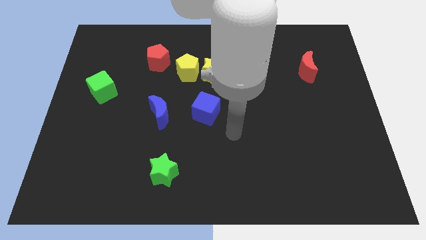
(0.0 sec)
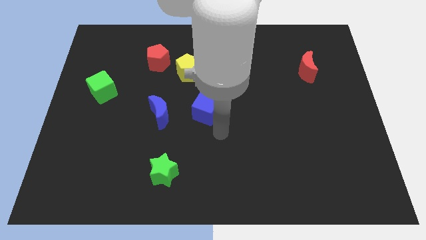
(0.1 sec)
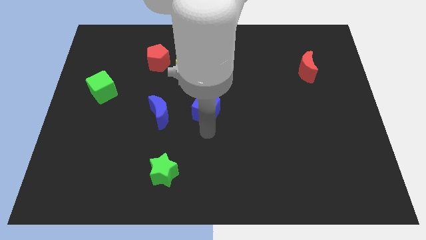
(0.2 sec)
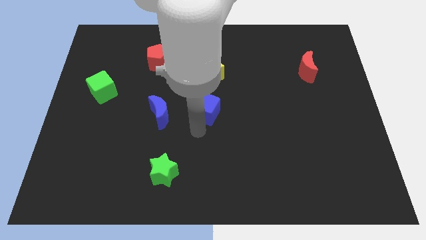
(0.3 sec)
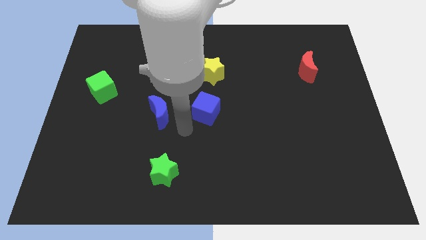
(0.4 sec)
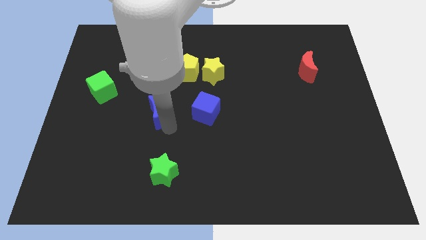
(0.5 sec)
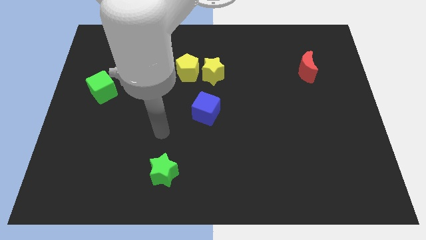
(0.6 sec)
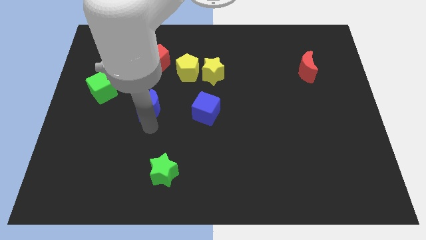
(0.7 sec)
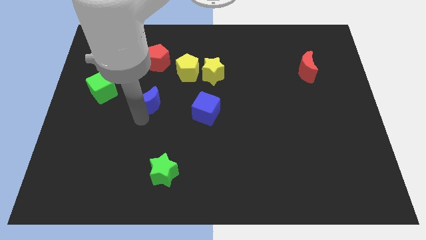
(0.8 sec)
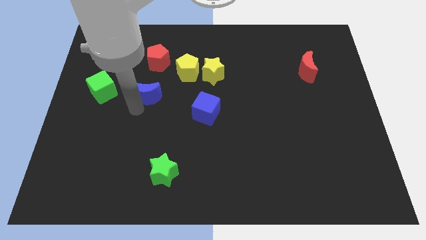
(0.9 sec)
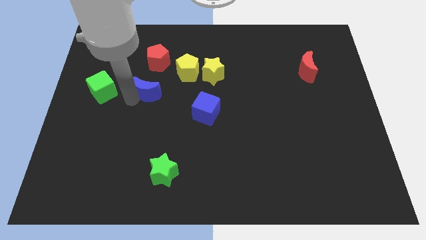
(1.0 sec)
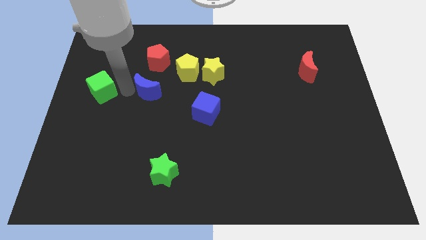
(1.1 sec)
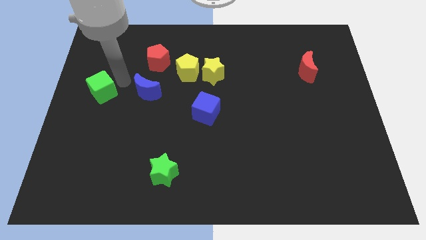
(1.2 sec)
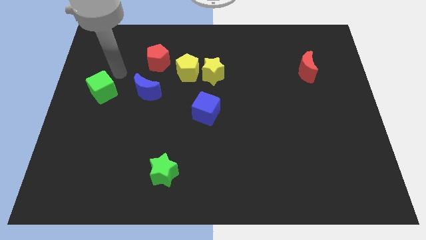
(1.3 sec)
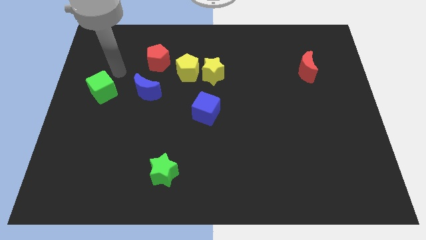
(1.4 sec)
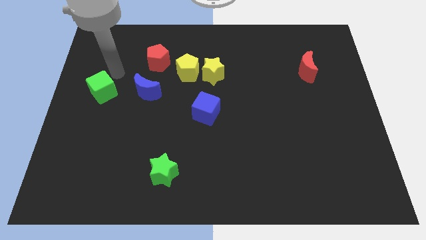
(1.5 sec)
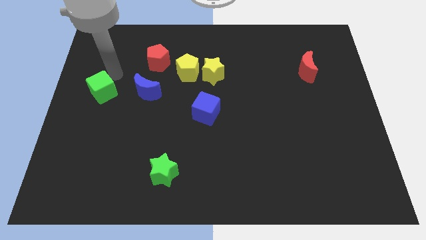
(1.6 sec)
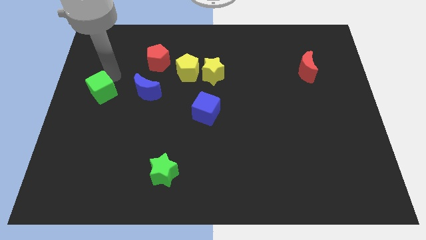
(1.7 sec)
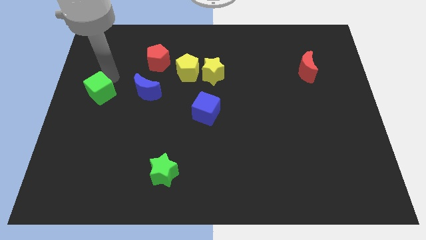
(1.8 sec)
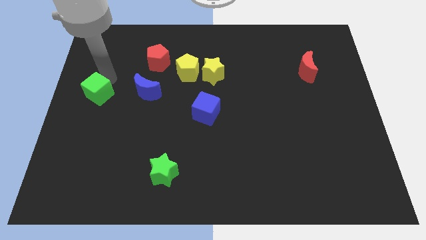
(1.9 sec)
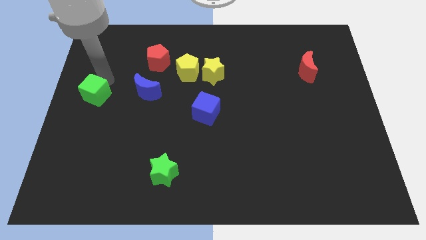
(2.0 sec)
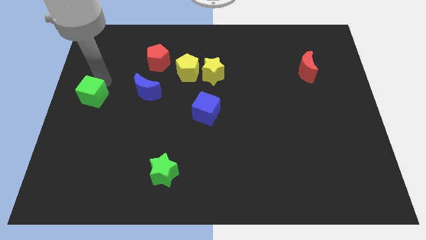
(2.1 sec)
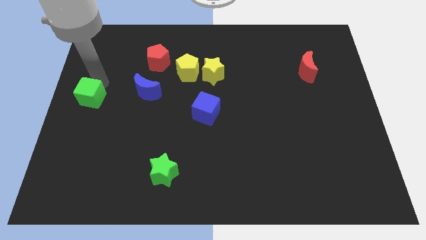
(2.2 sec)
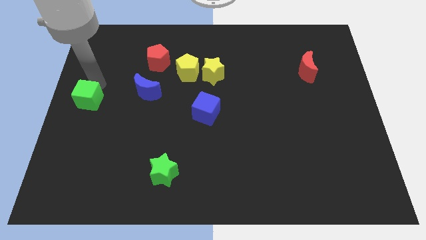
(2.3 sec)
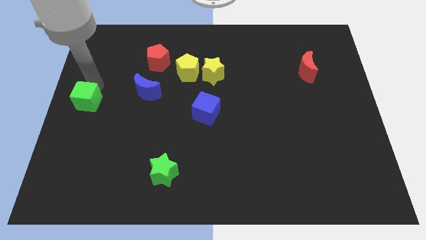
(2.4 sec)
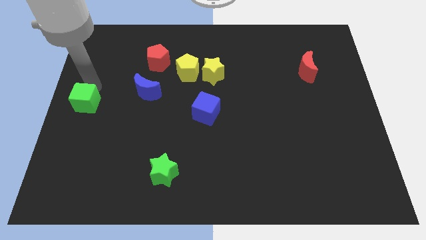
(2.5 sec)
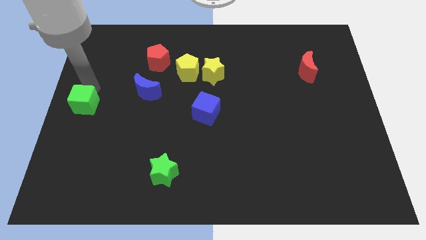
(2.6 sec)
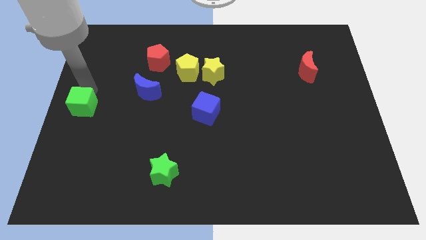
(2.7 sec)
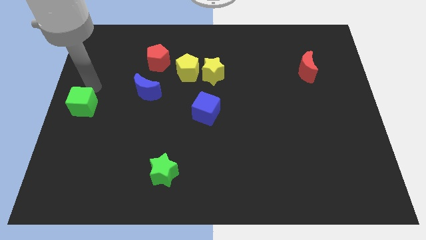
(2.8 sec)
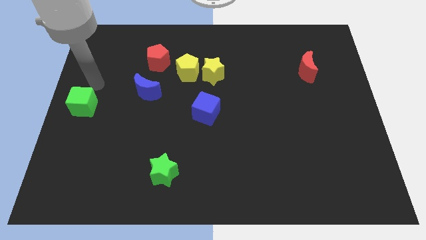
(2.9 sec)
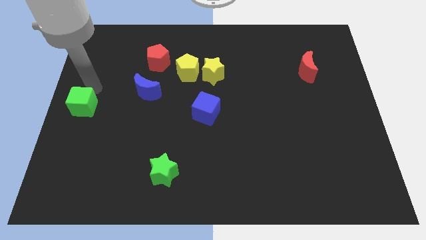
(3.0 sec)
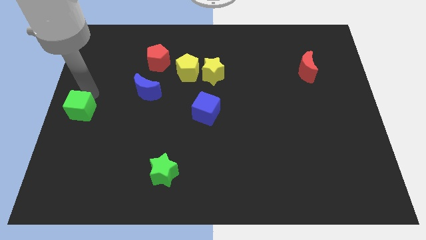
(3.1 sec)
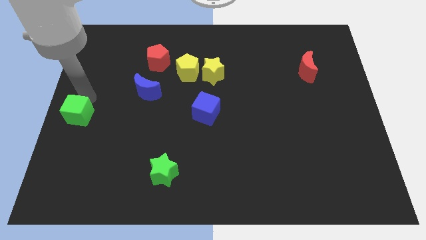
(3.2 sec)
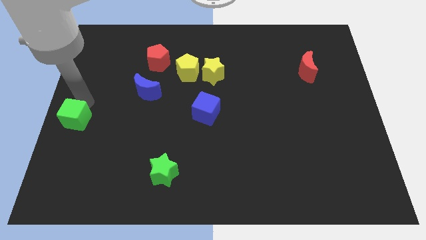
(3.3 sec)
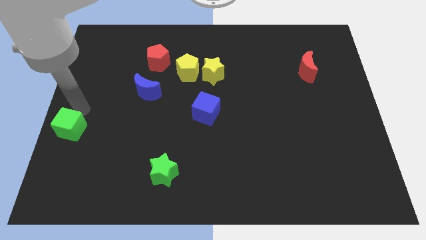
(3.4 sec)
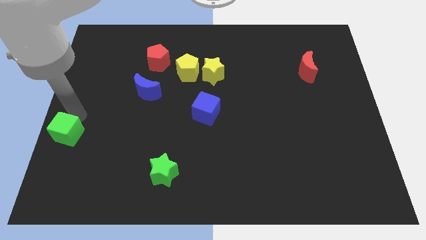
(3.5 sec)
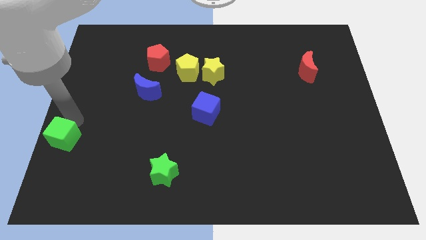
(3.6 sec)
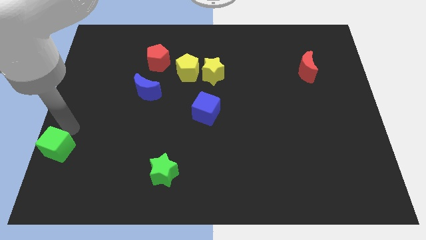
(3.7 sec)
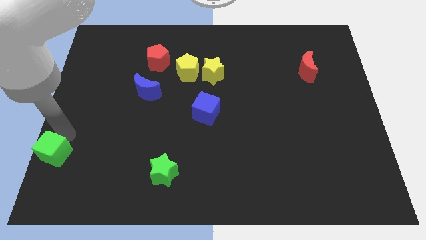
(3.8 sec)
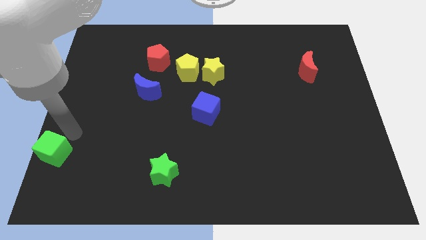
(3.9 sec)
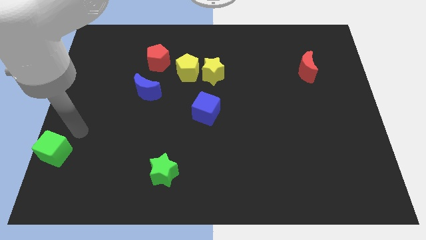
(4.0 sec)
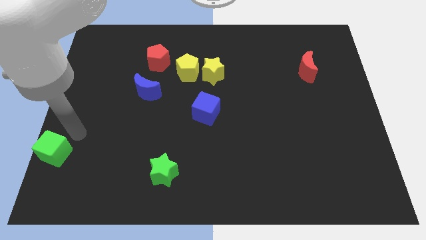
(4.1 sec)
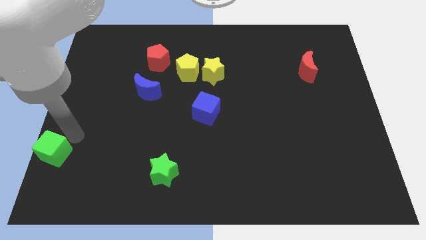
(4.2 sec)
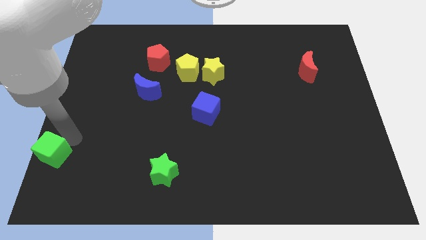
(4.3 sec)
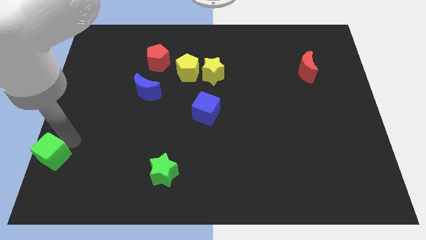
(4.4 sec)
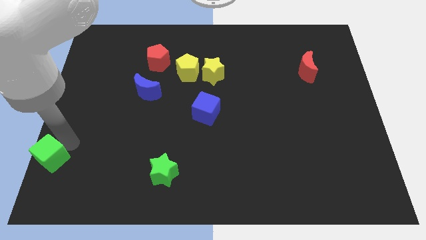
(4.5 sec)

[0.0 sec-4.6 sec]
move the green cube to the lower left corner

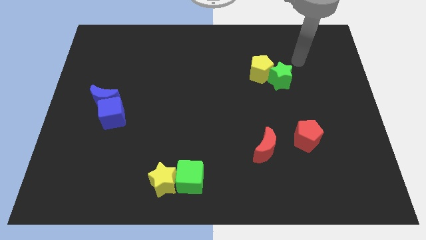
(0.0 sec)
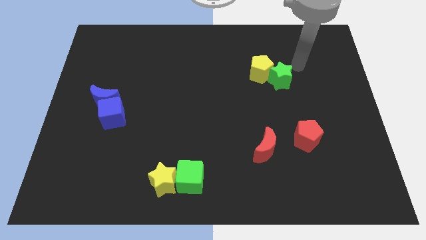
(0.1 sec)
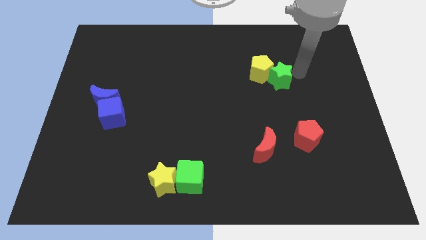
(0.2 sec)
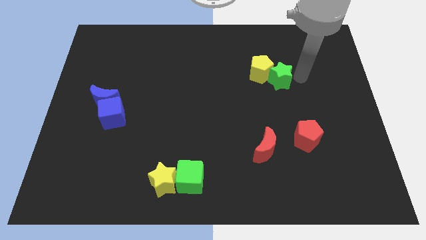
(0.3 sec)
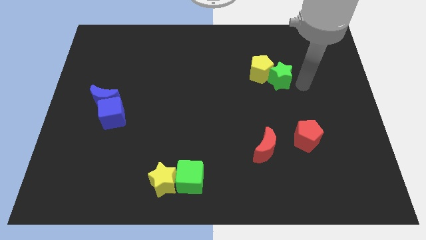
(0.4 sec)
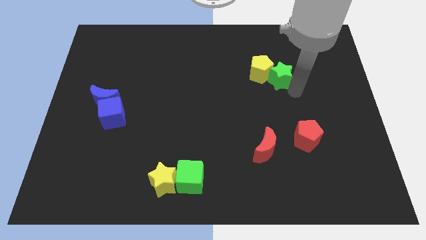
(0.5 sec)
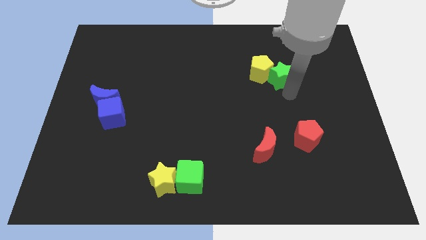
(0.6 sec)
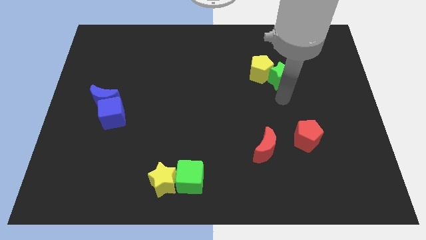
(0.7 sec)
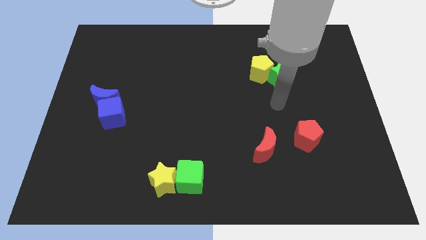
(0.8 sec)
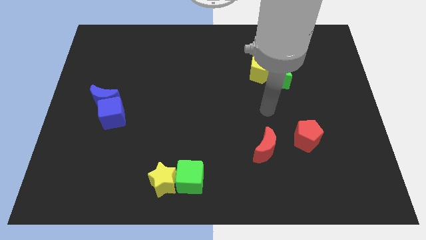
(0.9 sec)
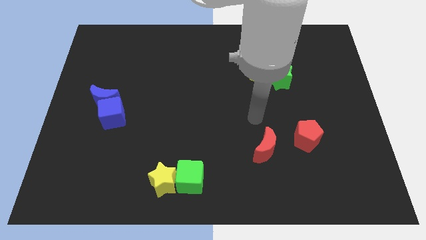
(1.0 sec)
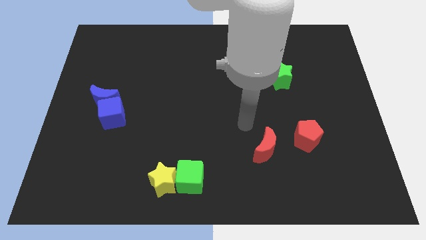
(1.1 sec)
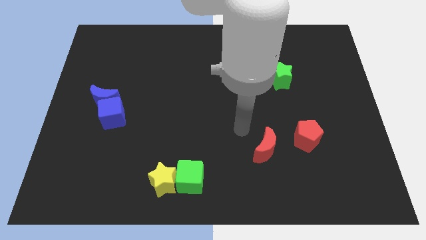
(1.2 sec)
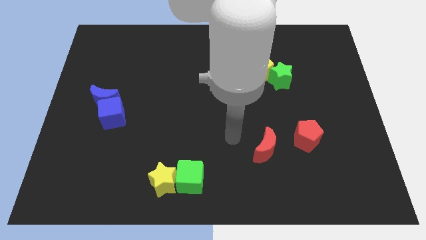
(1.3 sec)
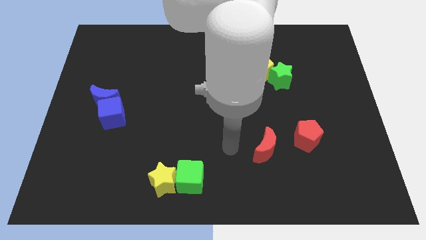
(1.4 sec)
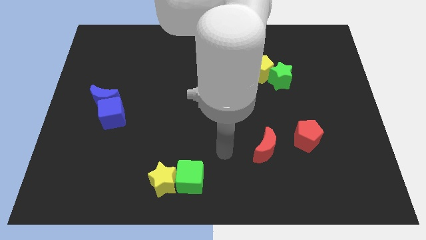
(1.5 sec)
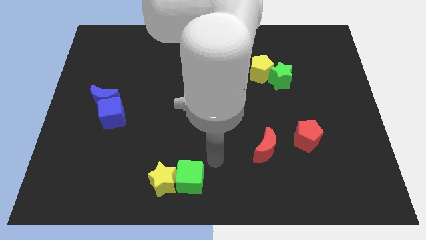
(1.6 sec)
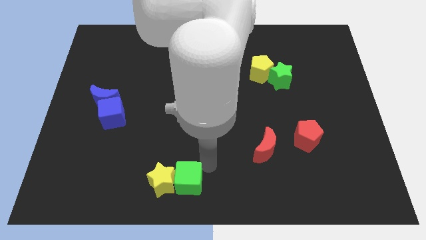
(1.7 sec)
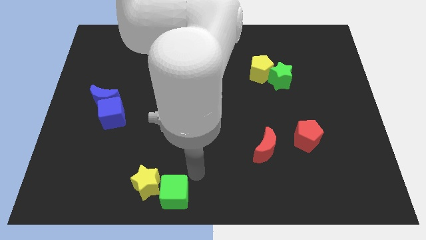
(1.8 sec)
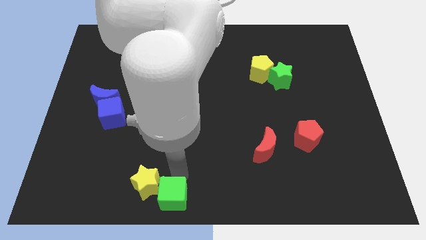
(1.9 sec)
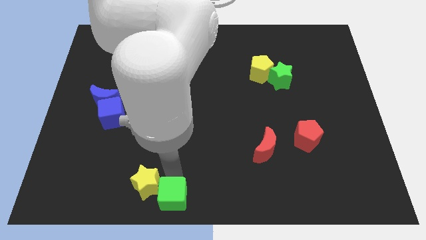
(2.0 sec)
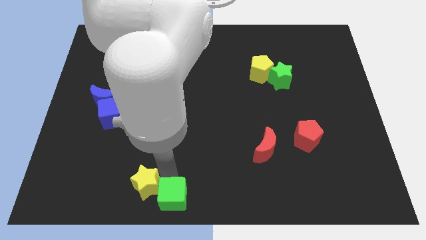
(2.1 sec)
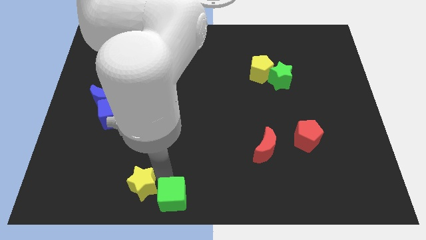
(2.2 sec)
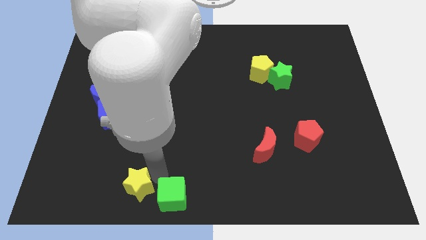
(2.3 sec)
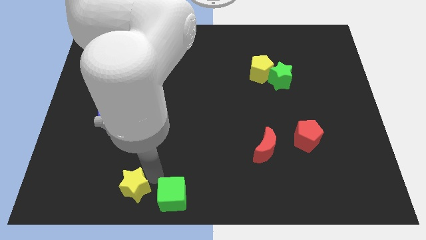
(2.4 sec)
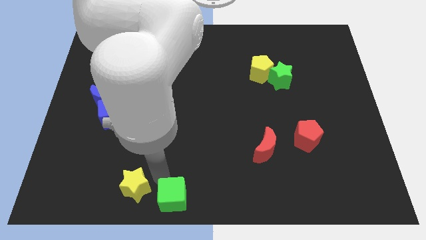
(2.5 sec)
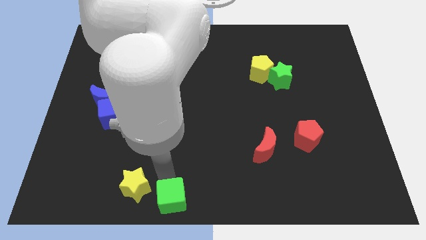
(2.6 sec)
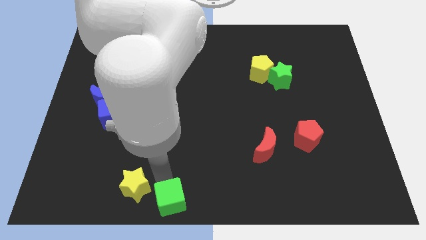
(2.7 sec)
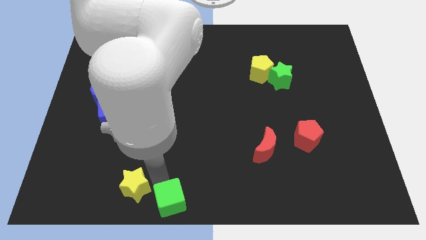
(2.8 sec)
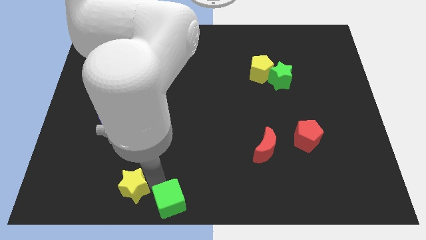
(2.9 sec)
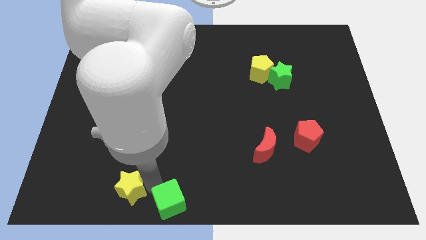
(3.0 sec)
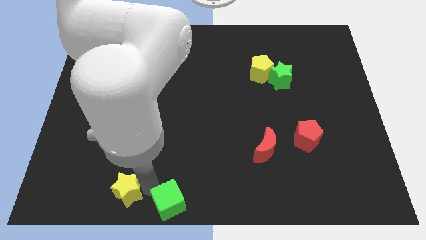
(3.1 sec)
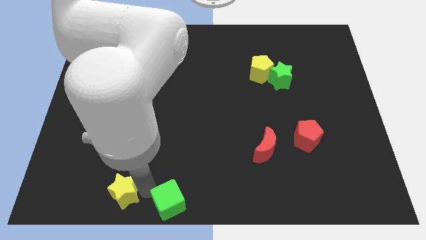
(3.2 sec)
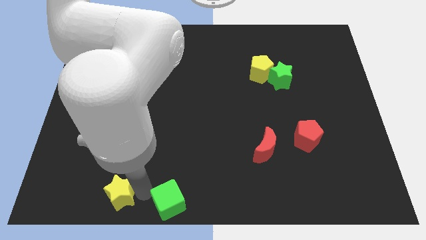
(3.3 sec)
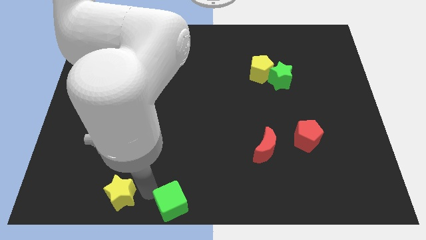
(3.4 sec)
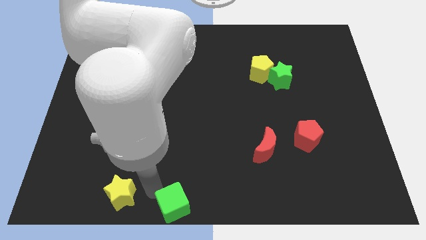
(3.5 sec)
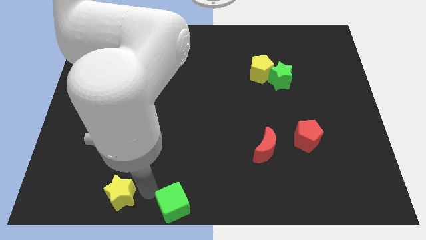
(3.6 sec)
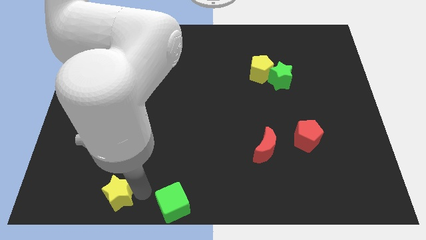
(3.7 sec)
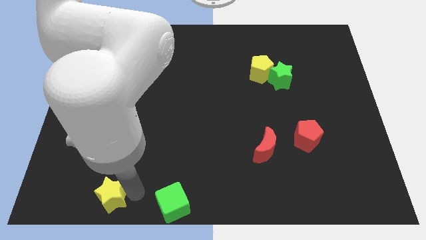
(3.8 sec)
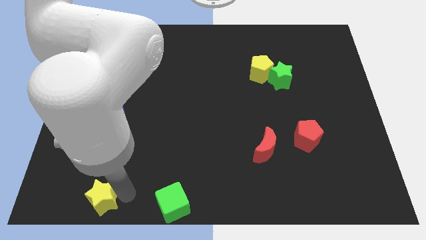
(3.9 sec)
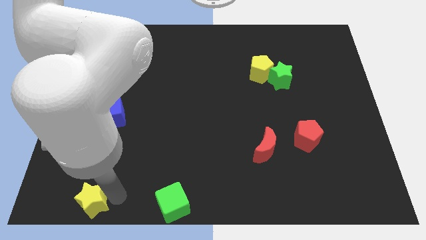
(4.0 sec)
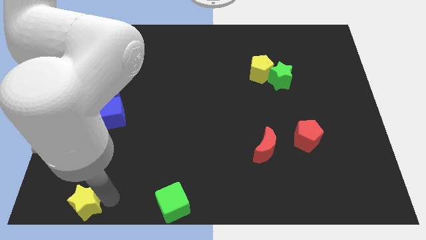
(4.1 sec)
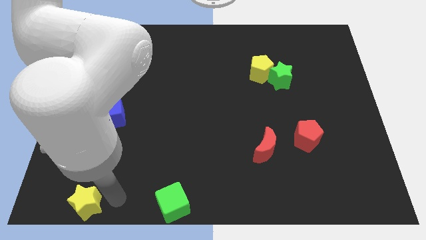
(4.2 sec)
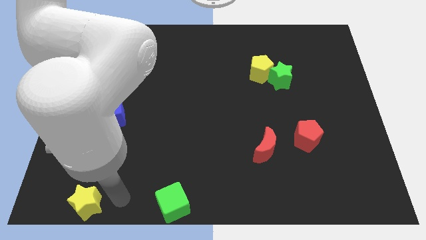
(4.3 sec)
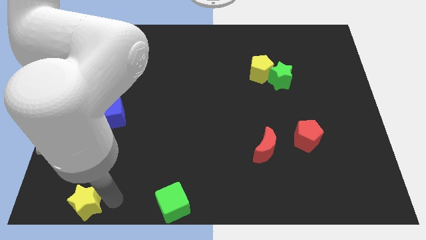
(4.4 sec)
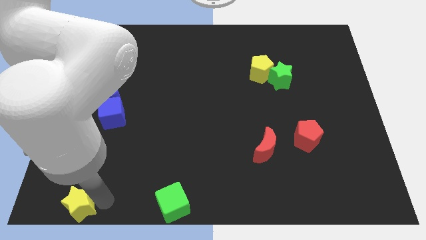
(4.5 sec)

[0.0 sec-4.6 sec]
move the yellow star to the bottom left corner
